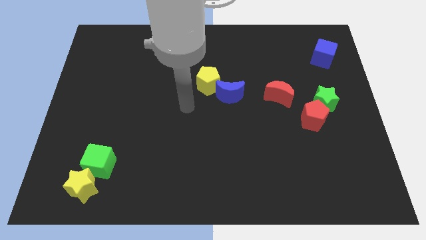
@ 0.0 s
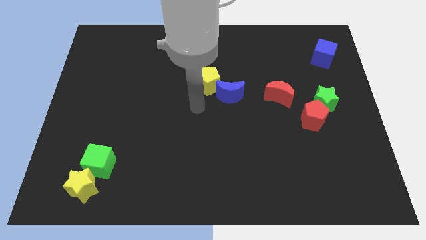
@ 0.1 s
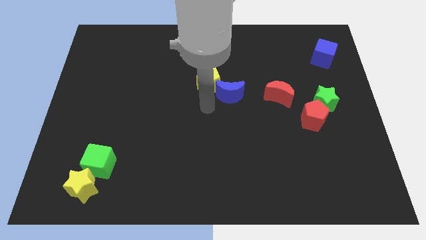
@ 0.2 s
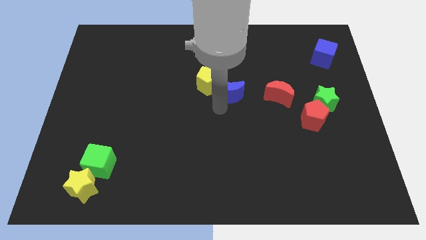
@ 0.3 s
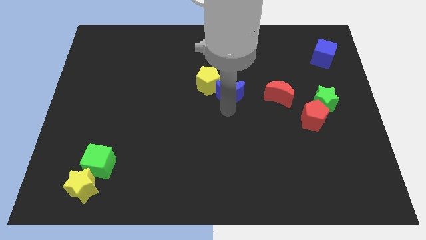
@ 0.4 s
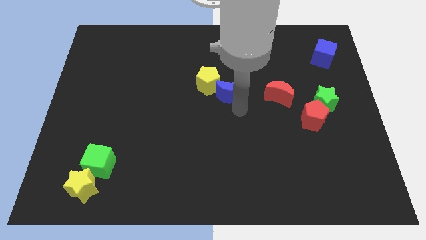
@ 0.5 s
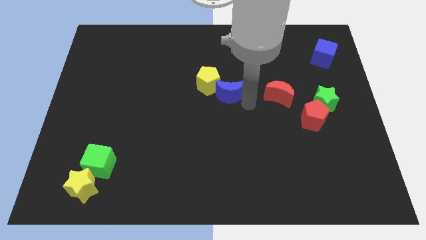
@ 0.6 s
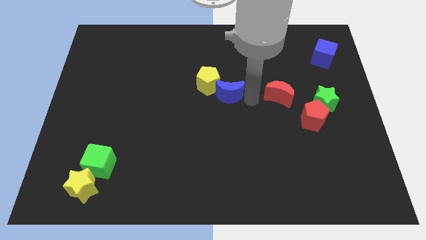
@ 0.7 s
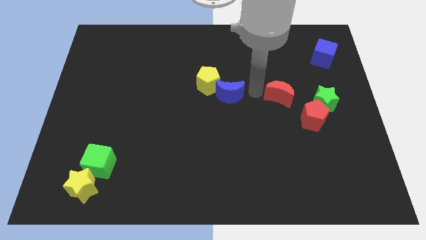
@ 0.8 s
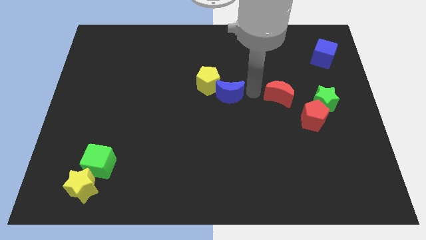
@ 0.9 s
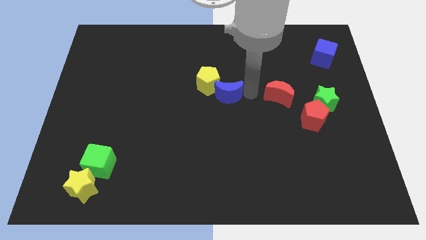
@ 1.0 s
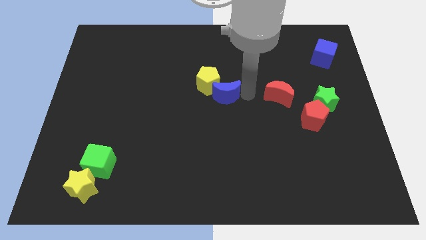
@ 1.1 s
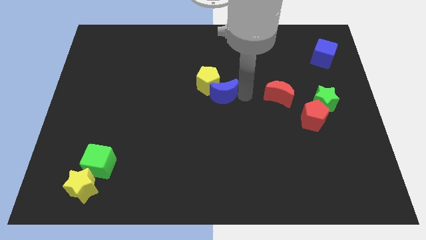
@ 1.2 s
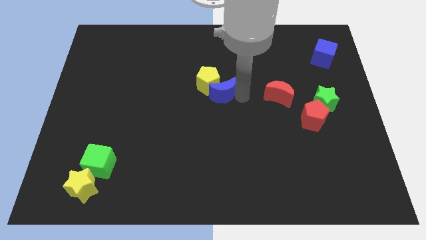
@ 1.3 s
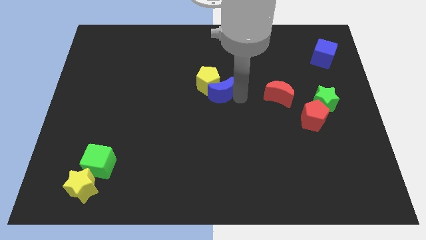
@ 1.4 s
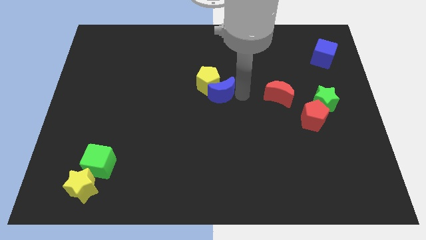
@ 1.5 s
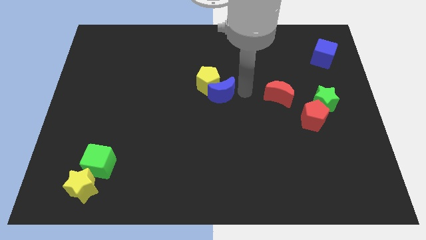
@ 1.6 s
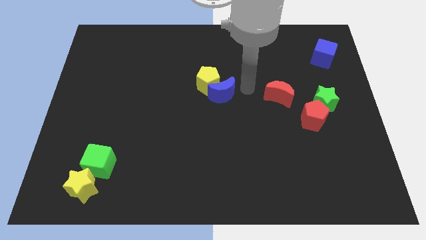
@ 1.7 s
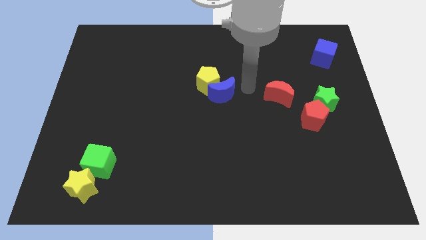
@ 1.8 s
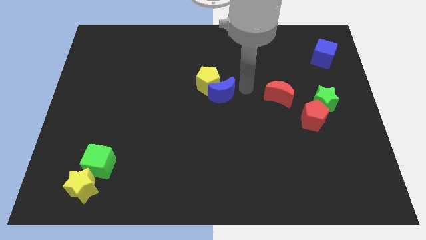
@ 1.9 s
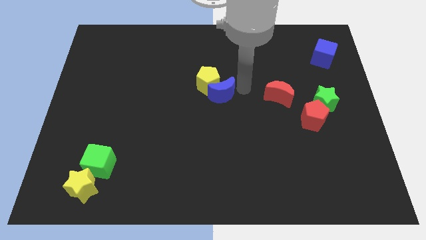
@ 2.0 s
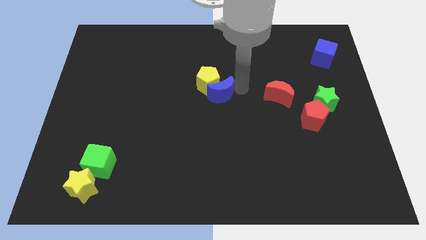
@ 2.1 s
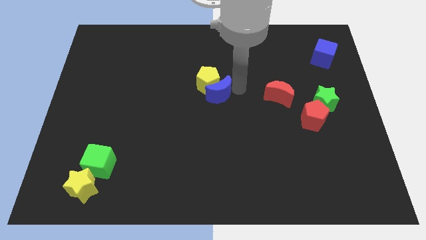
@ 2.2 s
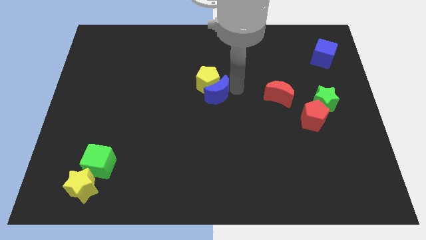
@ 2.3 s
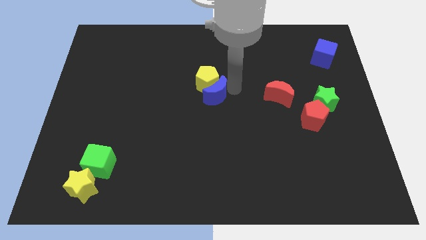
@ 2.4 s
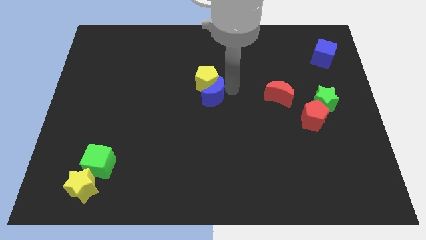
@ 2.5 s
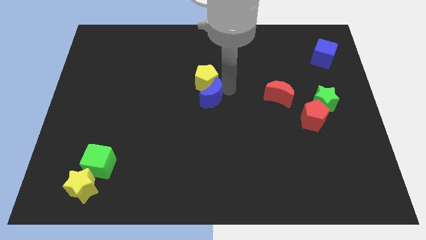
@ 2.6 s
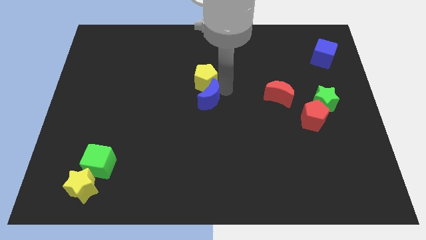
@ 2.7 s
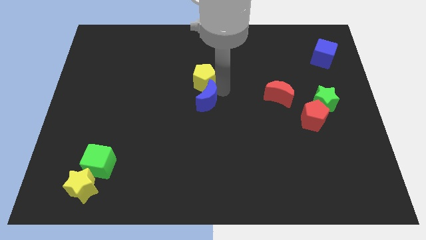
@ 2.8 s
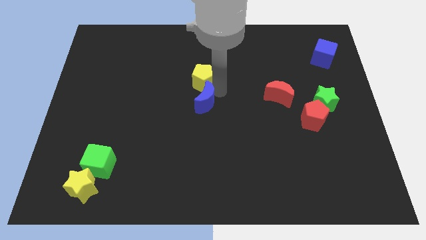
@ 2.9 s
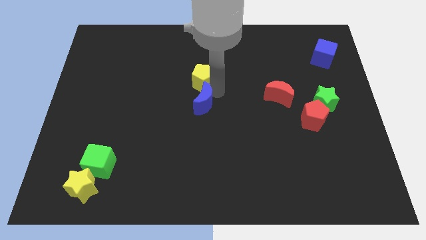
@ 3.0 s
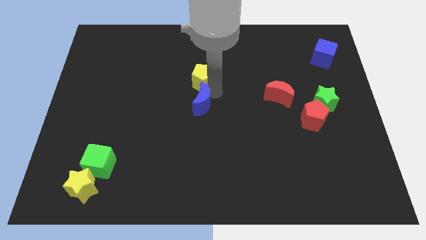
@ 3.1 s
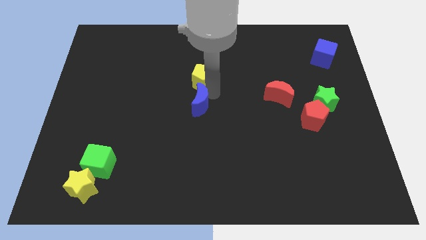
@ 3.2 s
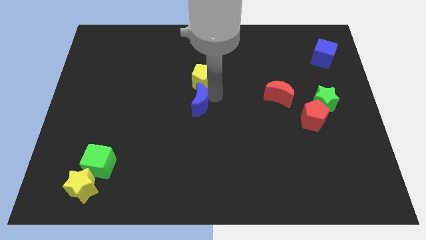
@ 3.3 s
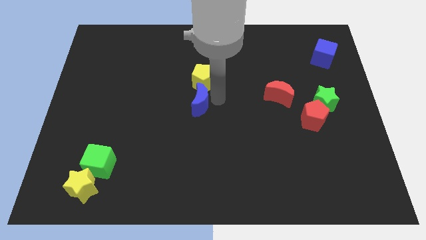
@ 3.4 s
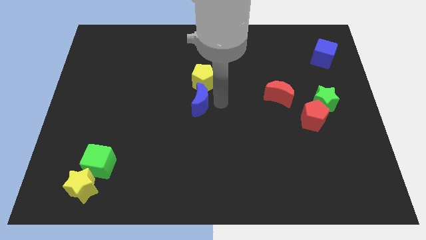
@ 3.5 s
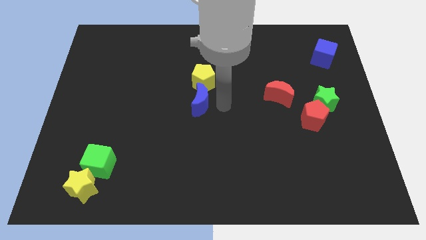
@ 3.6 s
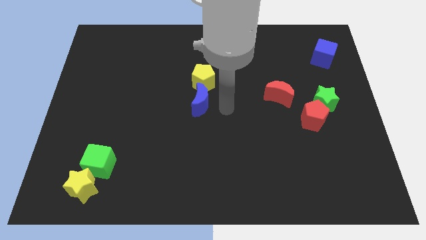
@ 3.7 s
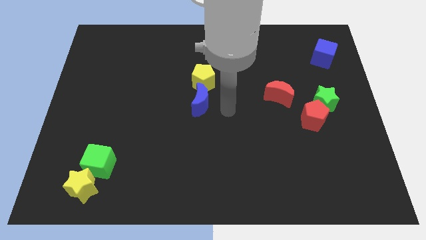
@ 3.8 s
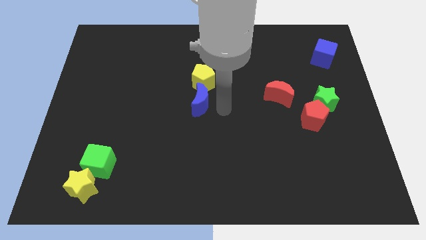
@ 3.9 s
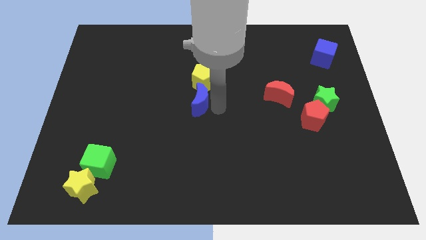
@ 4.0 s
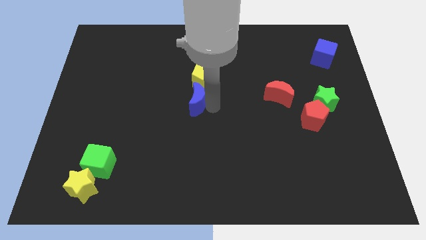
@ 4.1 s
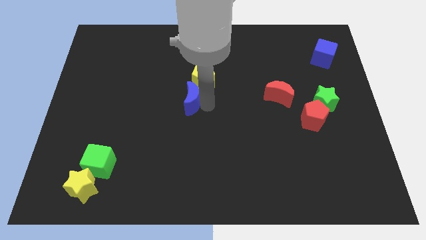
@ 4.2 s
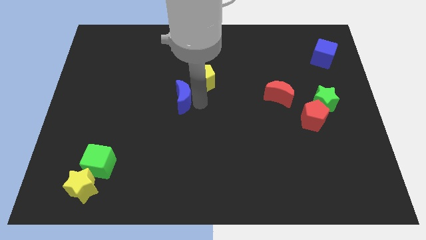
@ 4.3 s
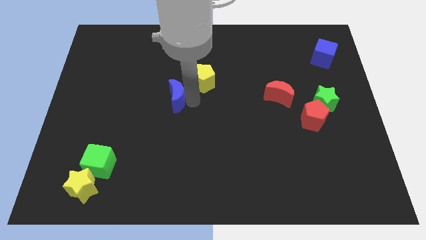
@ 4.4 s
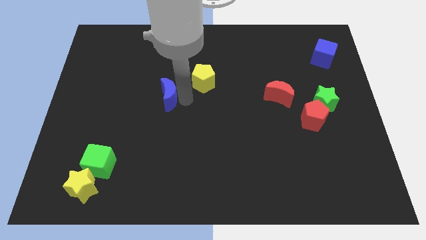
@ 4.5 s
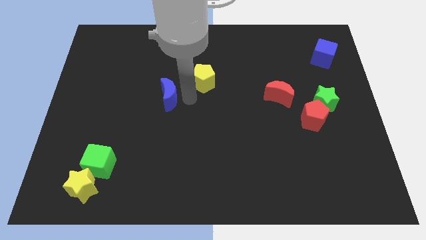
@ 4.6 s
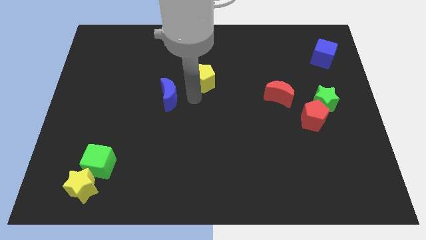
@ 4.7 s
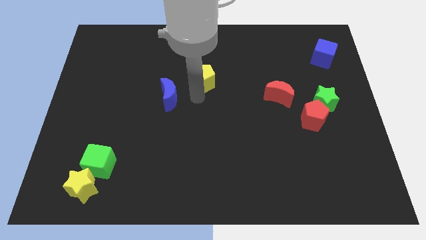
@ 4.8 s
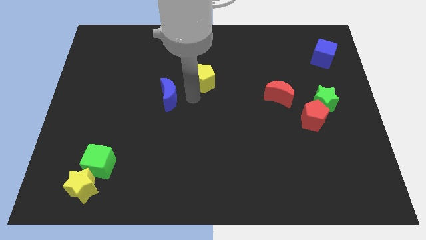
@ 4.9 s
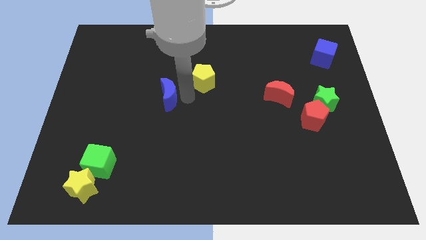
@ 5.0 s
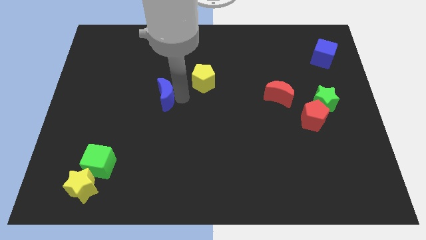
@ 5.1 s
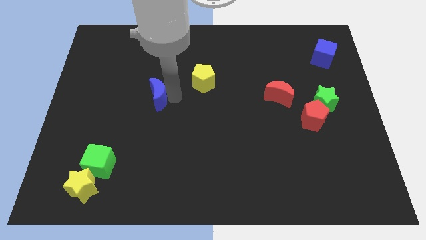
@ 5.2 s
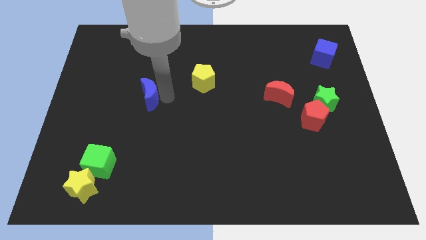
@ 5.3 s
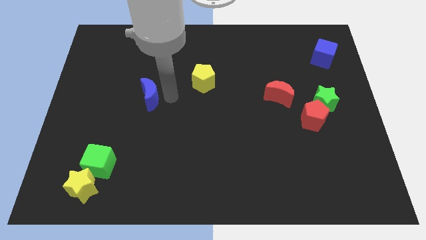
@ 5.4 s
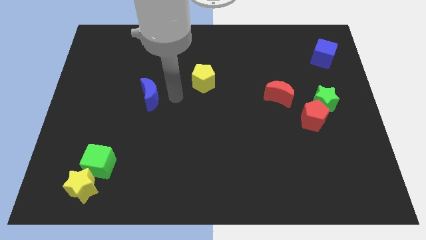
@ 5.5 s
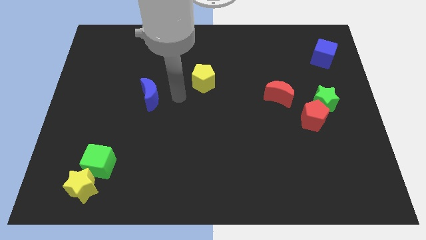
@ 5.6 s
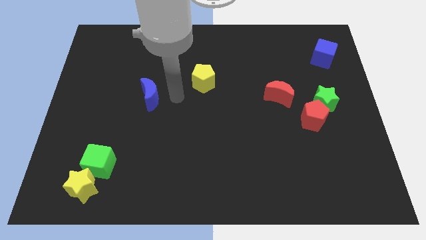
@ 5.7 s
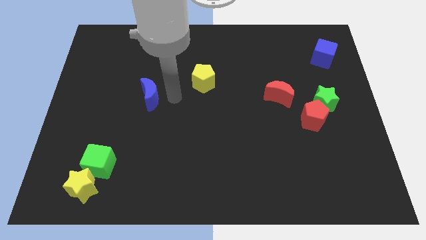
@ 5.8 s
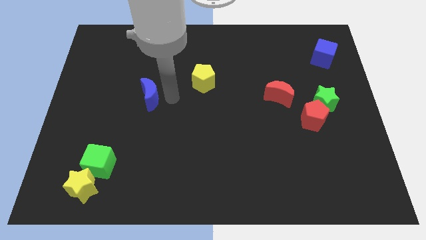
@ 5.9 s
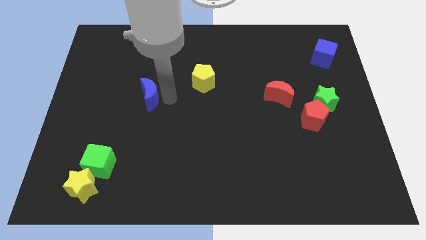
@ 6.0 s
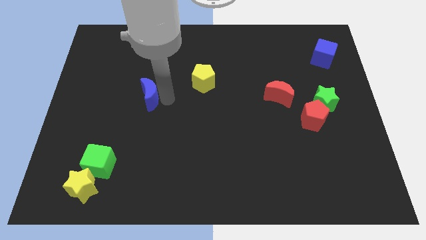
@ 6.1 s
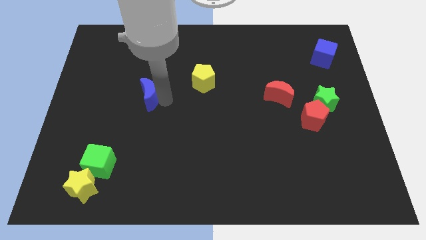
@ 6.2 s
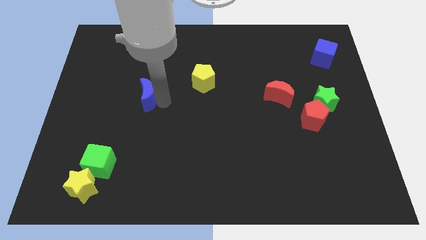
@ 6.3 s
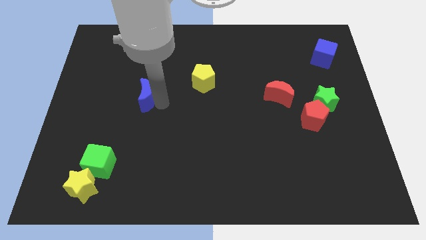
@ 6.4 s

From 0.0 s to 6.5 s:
push the blue moon left

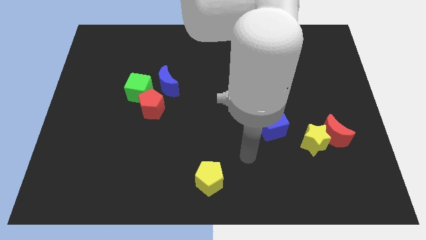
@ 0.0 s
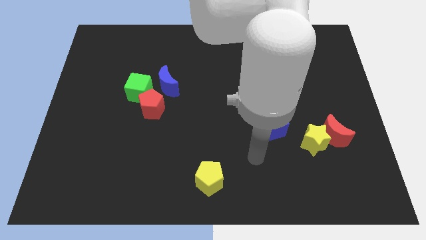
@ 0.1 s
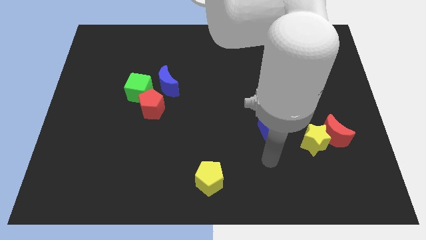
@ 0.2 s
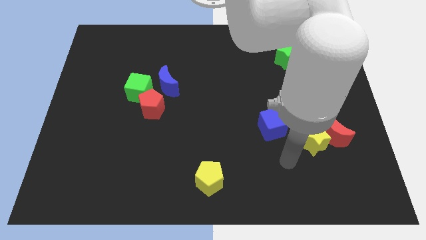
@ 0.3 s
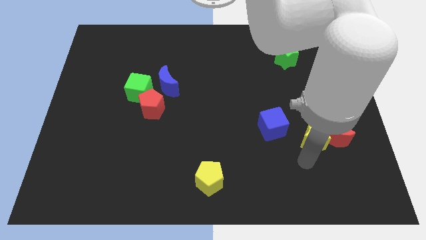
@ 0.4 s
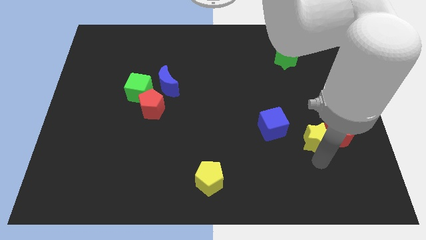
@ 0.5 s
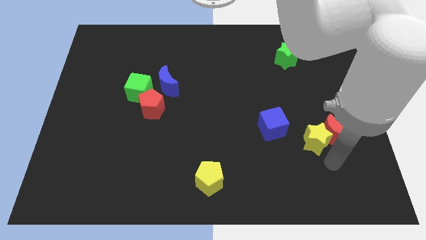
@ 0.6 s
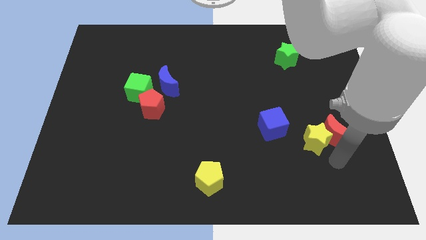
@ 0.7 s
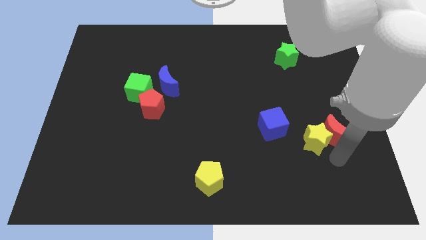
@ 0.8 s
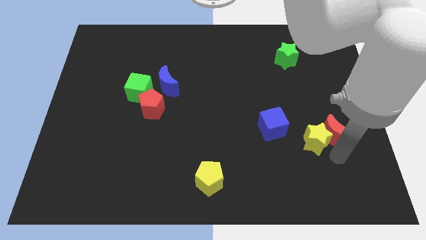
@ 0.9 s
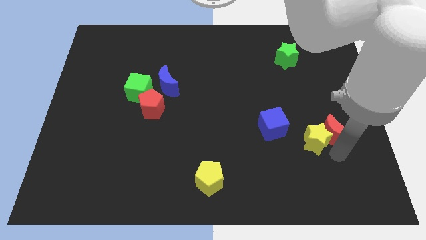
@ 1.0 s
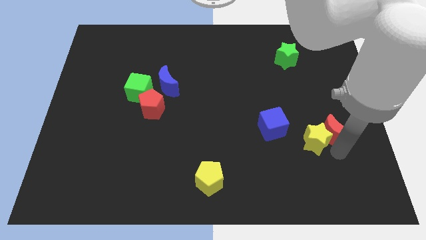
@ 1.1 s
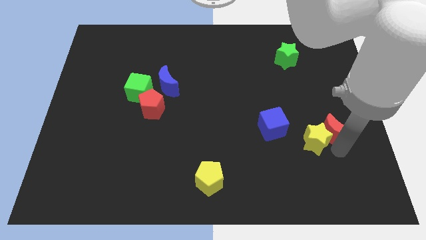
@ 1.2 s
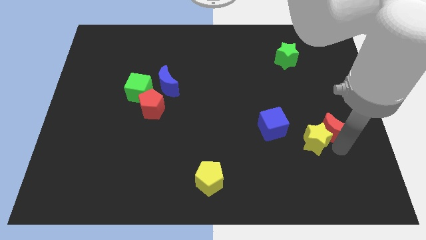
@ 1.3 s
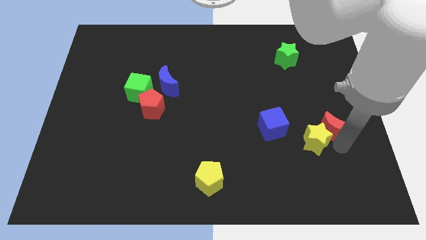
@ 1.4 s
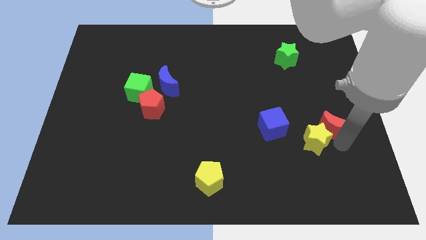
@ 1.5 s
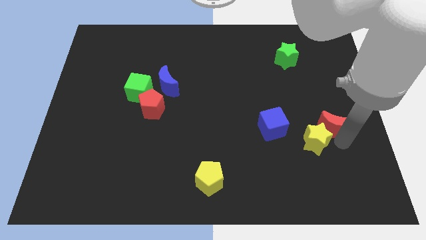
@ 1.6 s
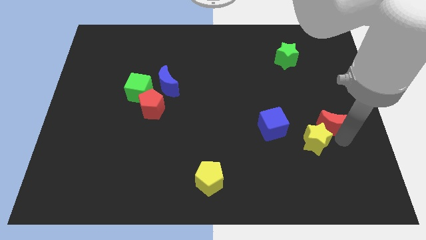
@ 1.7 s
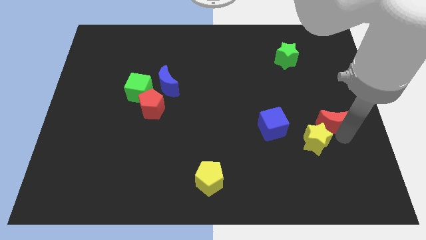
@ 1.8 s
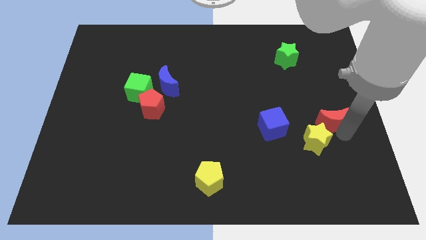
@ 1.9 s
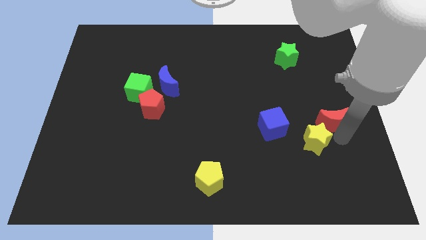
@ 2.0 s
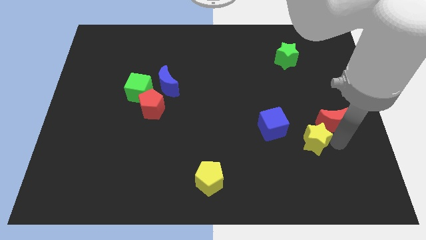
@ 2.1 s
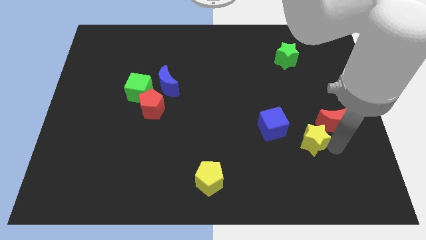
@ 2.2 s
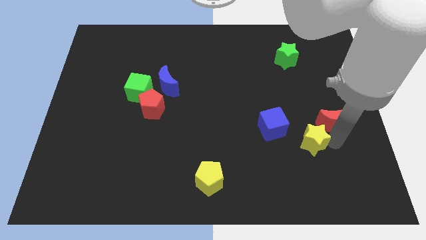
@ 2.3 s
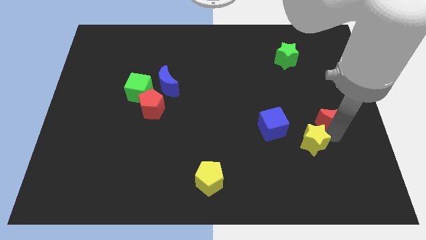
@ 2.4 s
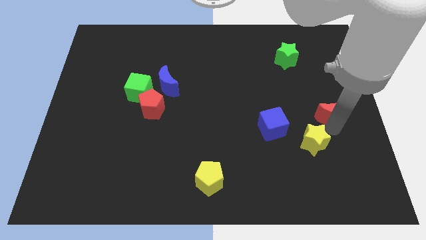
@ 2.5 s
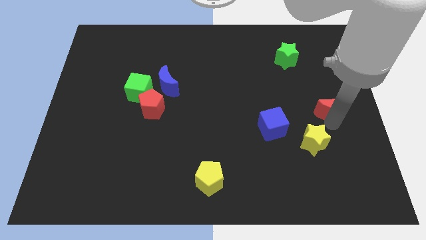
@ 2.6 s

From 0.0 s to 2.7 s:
slide the red moon up a little bit
